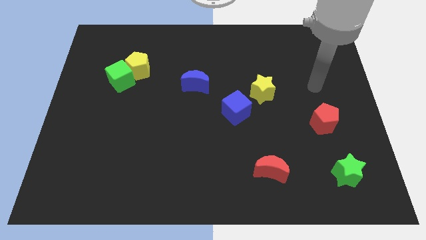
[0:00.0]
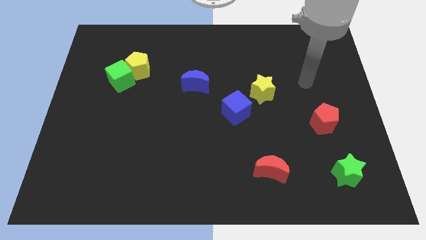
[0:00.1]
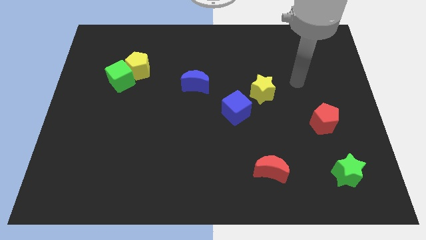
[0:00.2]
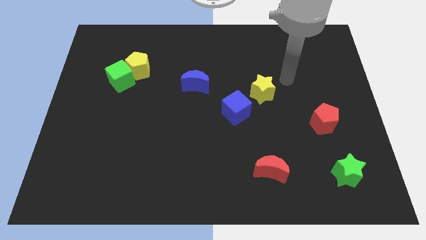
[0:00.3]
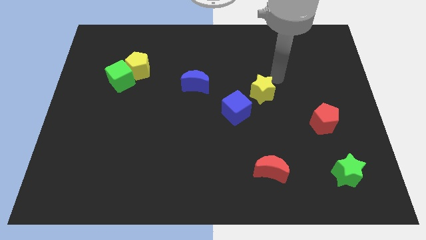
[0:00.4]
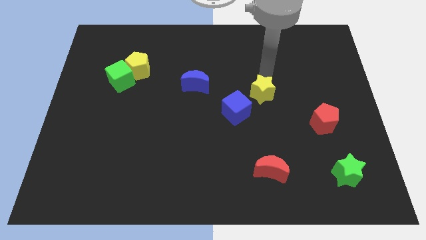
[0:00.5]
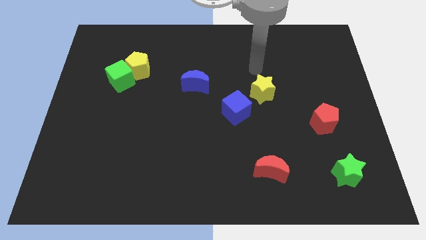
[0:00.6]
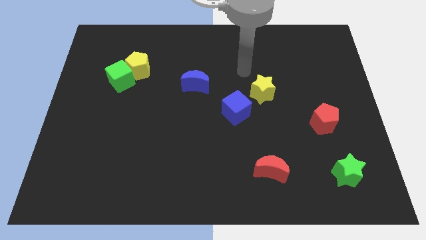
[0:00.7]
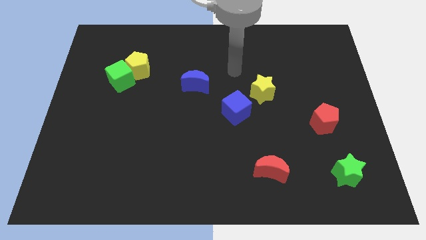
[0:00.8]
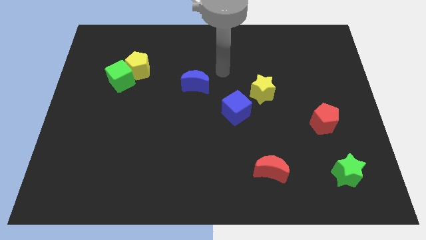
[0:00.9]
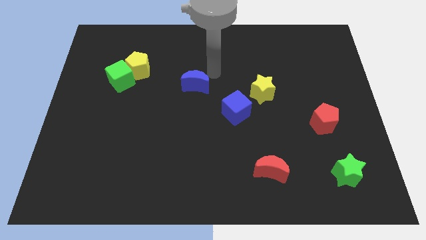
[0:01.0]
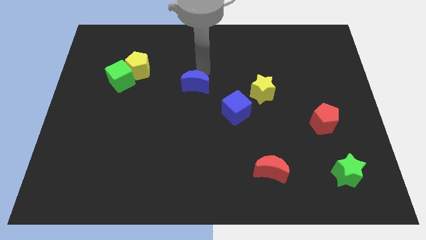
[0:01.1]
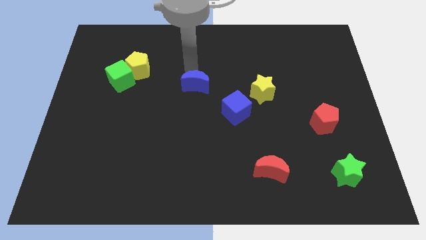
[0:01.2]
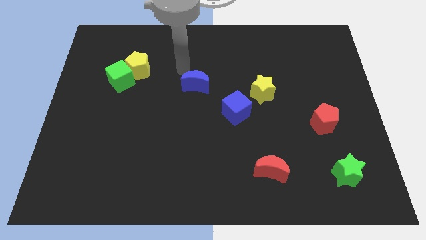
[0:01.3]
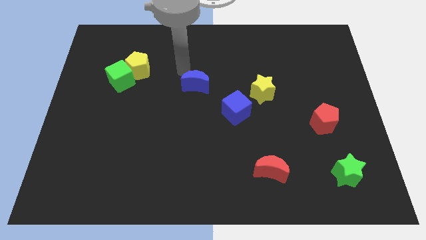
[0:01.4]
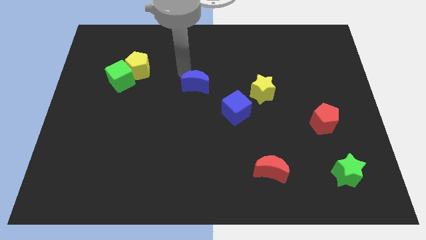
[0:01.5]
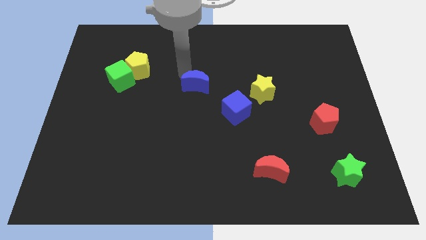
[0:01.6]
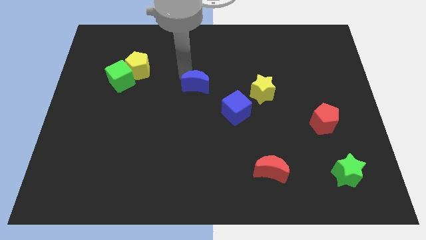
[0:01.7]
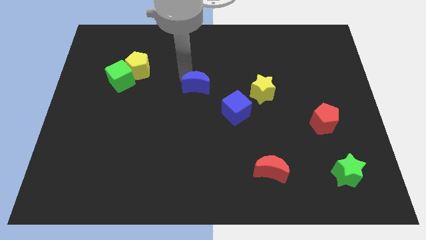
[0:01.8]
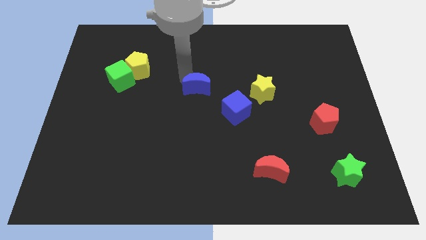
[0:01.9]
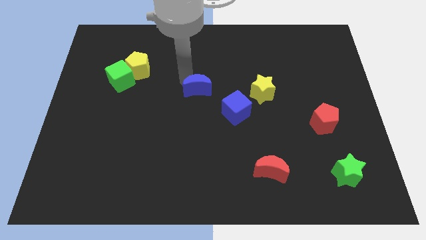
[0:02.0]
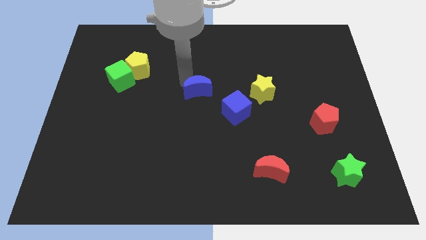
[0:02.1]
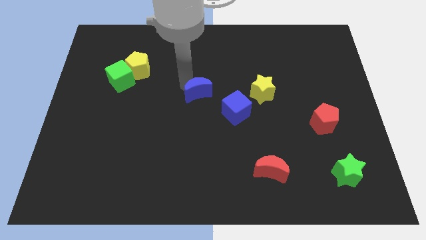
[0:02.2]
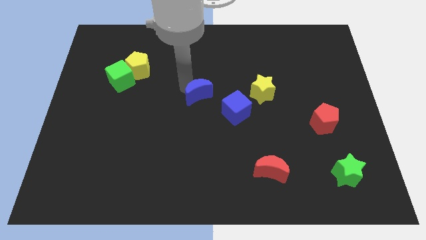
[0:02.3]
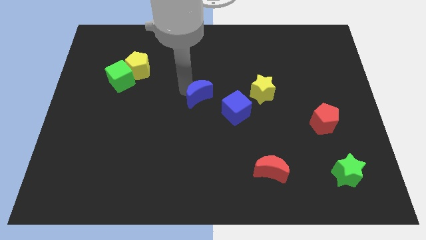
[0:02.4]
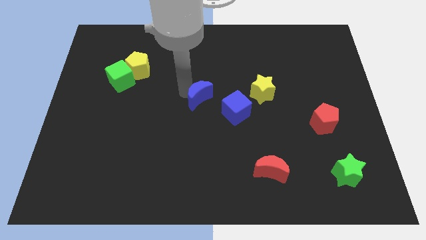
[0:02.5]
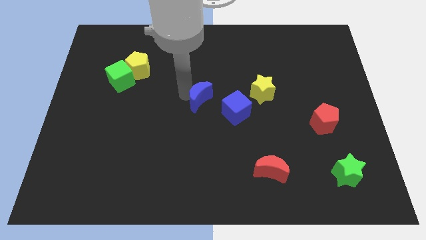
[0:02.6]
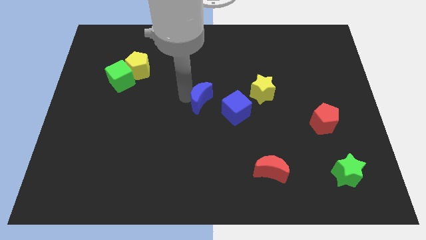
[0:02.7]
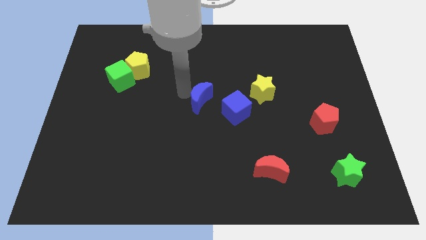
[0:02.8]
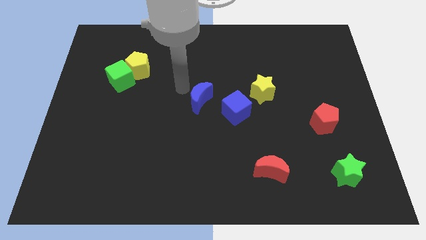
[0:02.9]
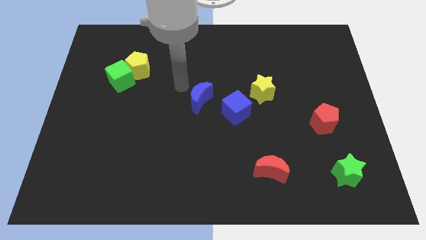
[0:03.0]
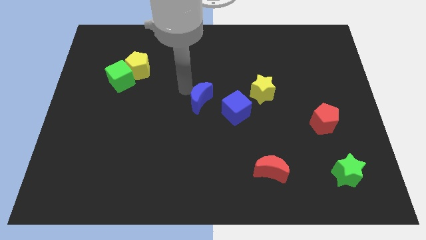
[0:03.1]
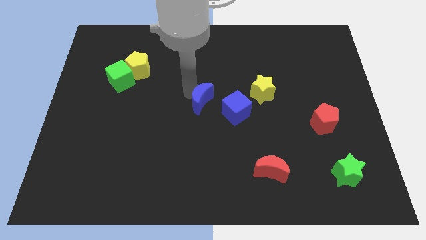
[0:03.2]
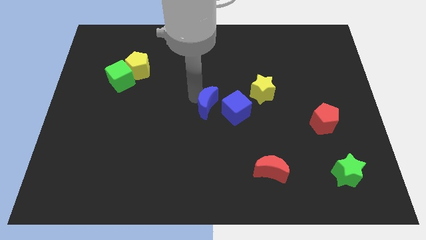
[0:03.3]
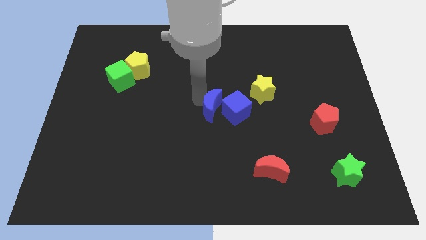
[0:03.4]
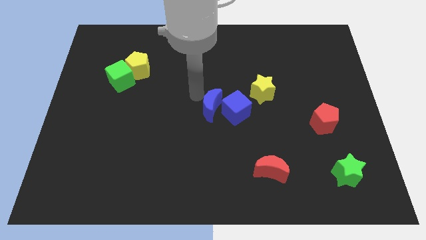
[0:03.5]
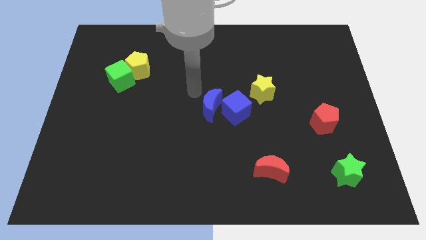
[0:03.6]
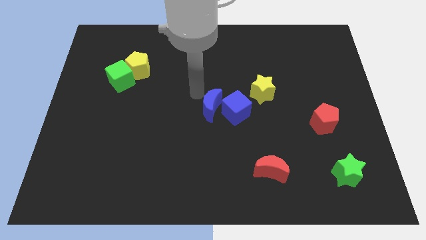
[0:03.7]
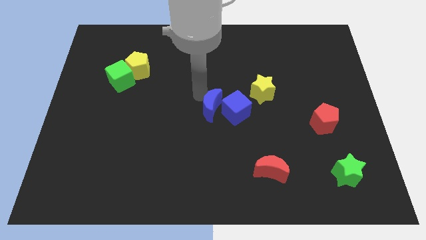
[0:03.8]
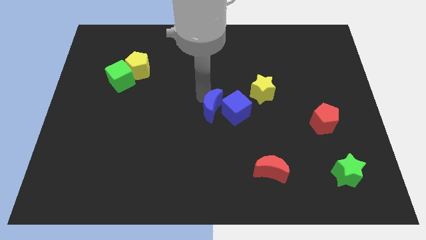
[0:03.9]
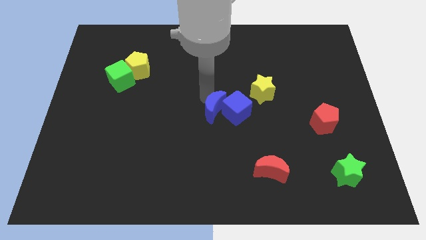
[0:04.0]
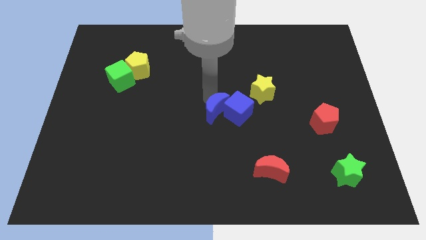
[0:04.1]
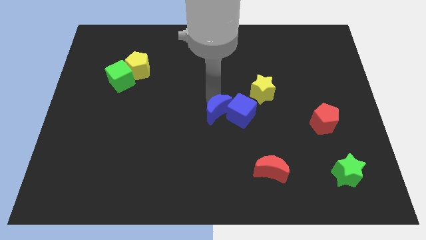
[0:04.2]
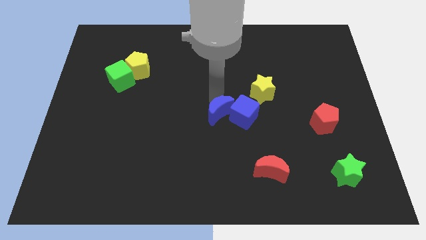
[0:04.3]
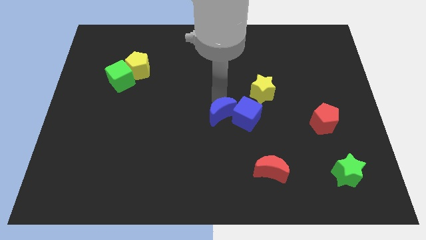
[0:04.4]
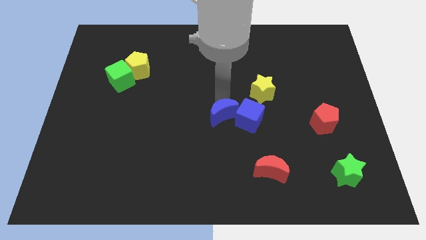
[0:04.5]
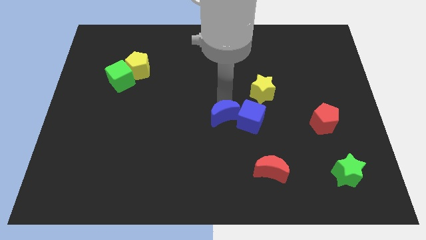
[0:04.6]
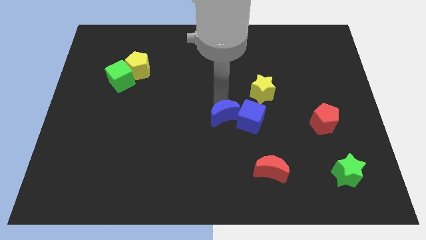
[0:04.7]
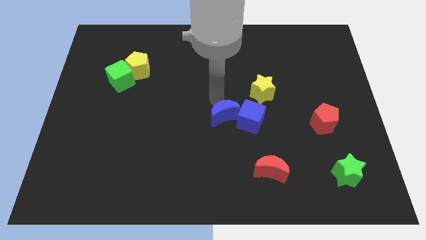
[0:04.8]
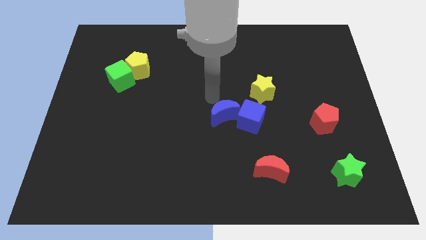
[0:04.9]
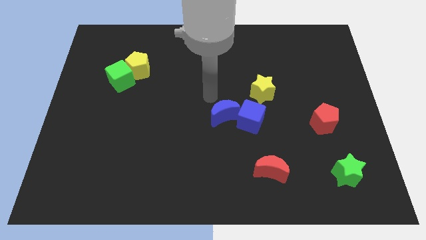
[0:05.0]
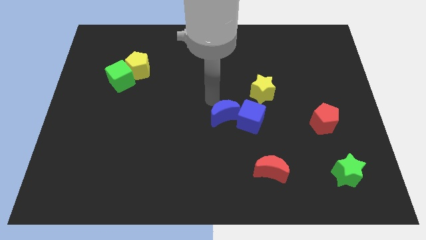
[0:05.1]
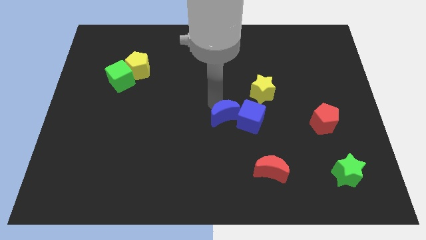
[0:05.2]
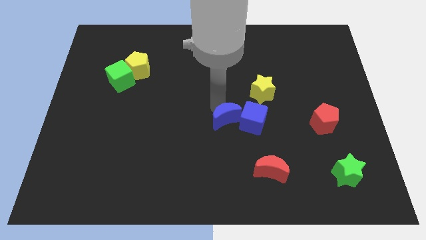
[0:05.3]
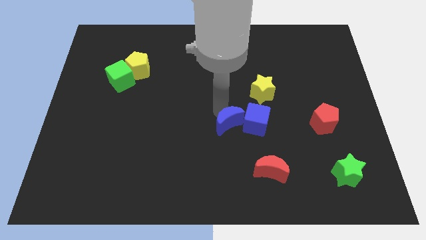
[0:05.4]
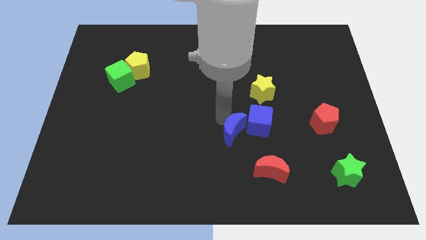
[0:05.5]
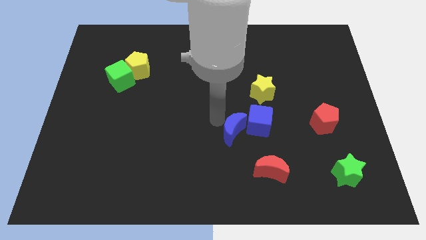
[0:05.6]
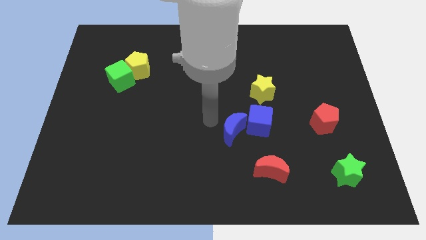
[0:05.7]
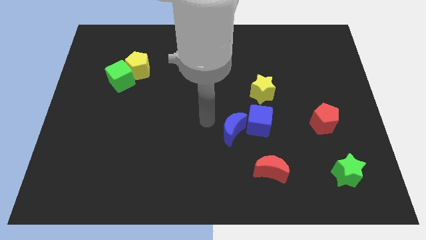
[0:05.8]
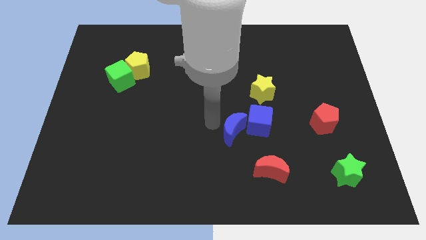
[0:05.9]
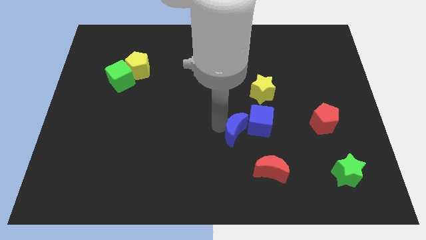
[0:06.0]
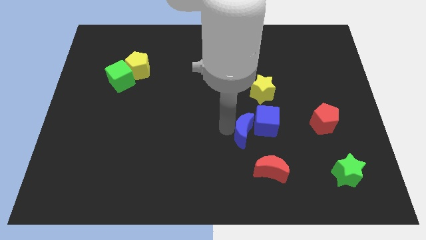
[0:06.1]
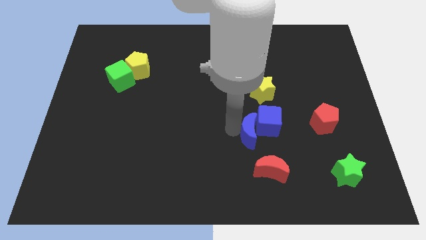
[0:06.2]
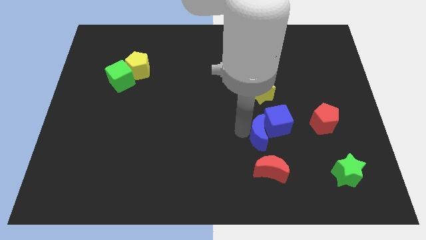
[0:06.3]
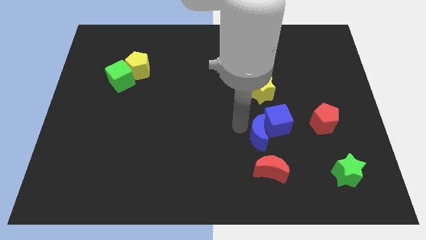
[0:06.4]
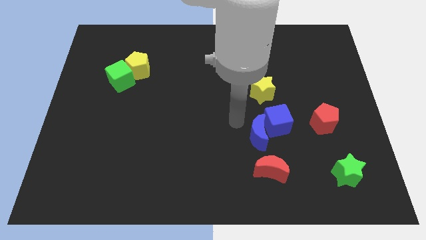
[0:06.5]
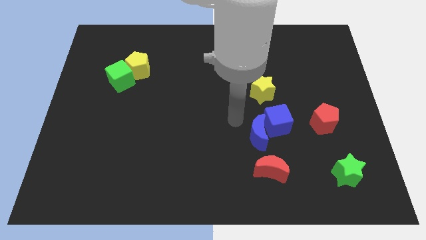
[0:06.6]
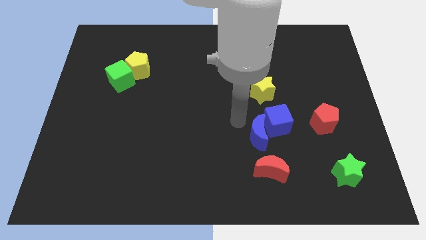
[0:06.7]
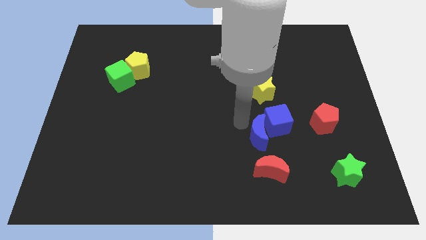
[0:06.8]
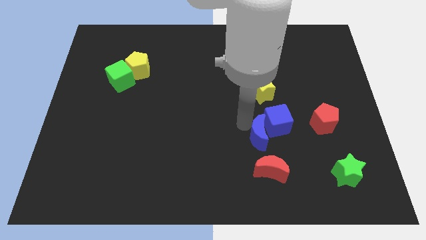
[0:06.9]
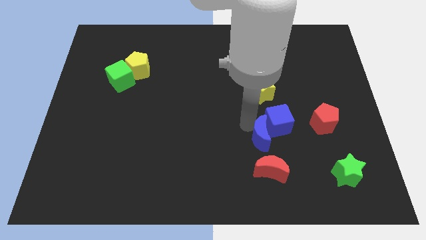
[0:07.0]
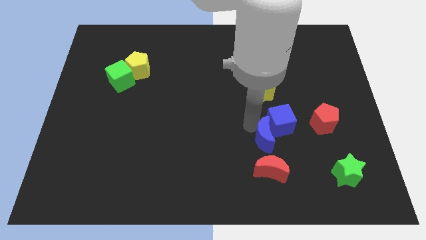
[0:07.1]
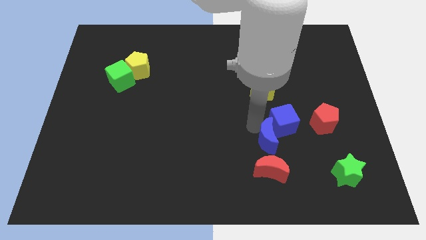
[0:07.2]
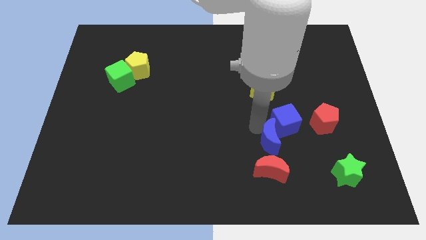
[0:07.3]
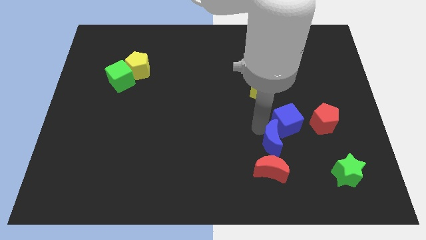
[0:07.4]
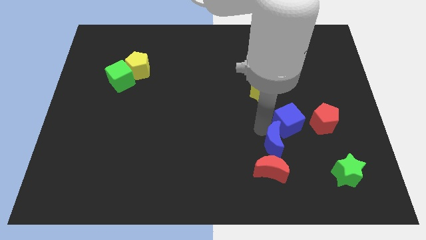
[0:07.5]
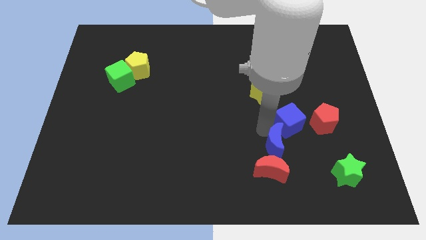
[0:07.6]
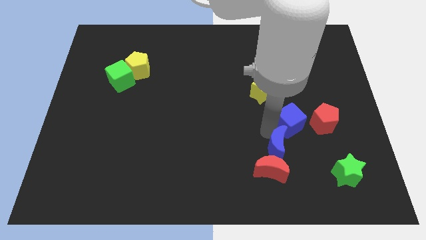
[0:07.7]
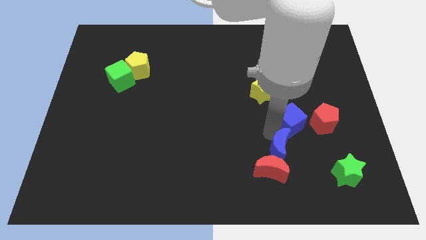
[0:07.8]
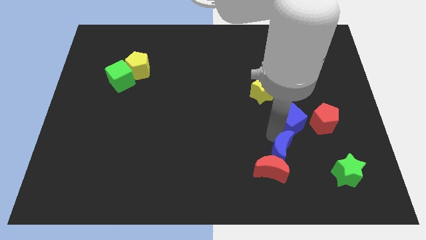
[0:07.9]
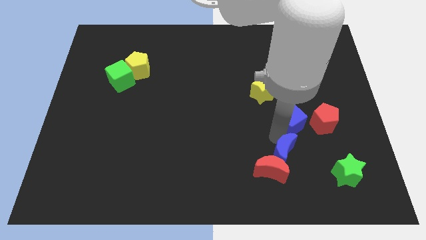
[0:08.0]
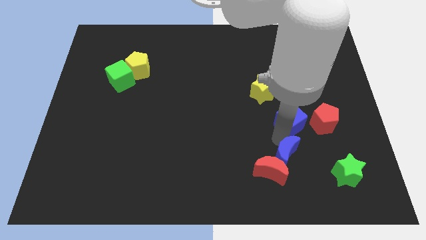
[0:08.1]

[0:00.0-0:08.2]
move the blue moon to the left side of the green star
